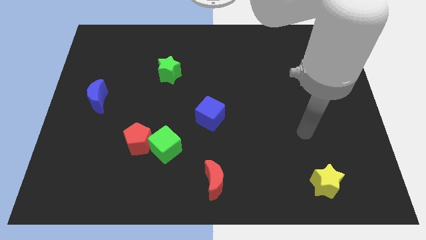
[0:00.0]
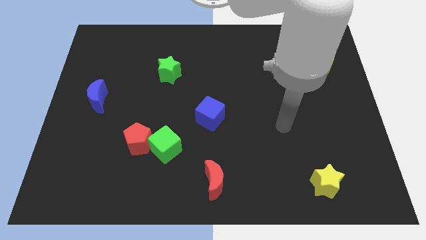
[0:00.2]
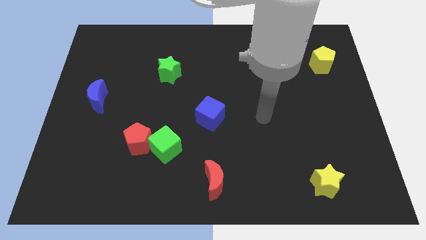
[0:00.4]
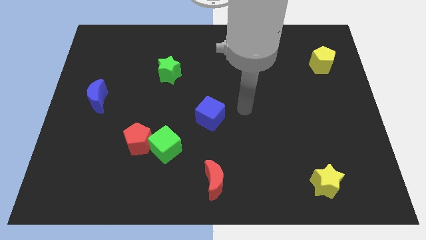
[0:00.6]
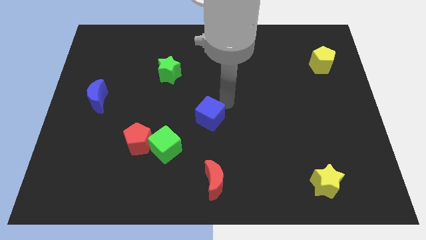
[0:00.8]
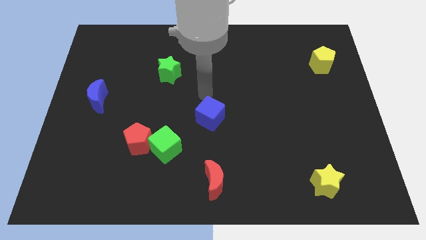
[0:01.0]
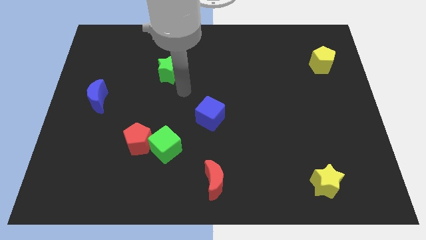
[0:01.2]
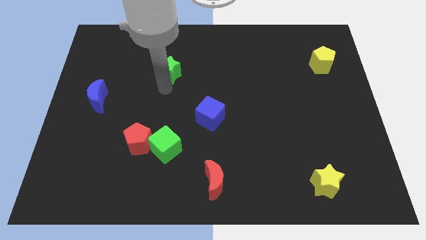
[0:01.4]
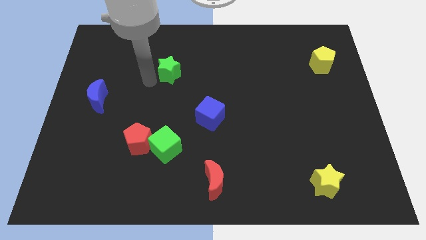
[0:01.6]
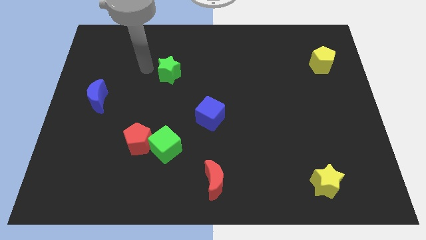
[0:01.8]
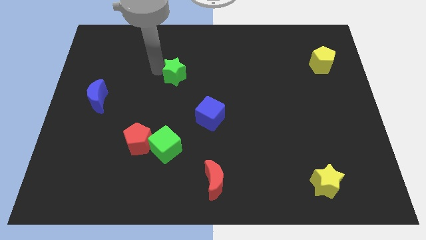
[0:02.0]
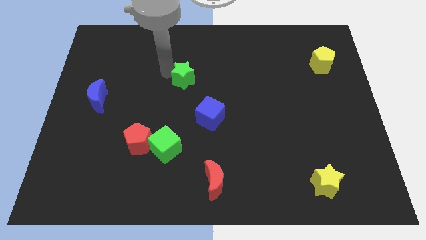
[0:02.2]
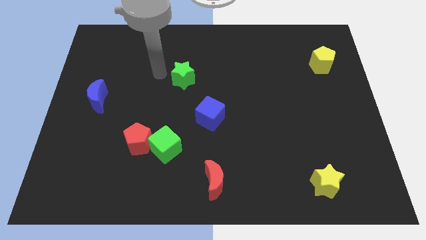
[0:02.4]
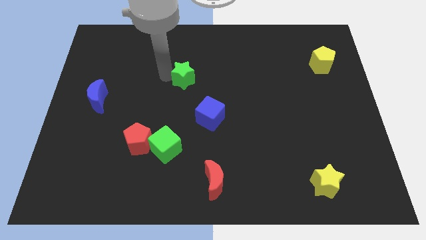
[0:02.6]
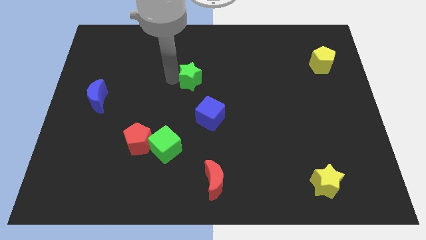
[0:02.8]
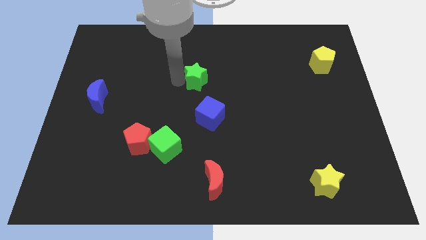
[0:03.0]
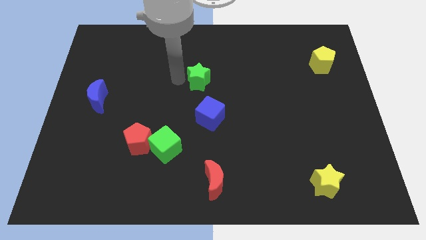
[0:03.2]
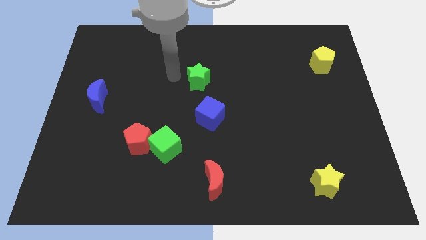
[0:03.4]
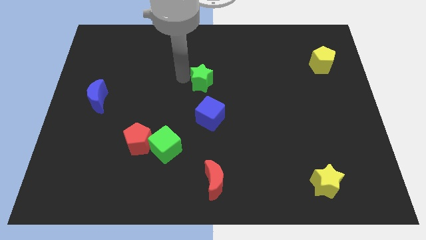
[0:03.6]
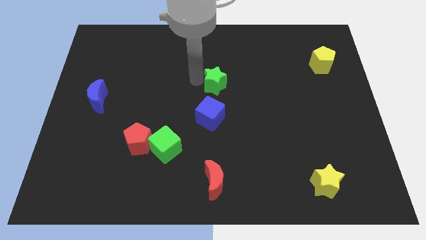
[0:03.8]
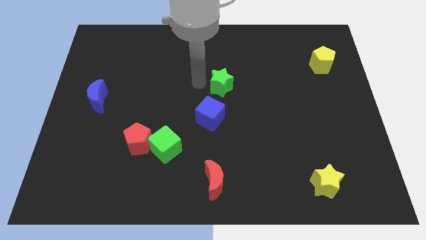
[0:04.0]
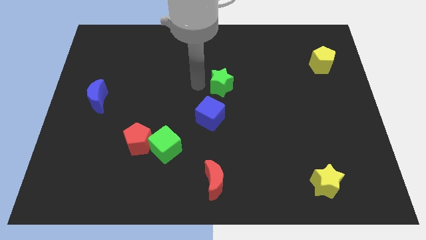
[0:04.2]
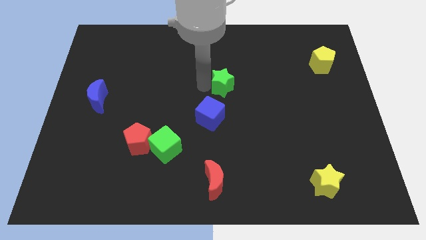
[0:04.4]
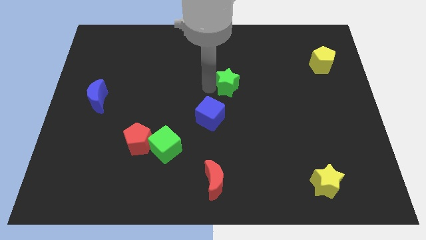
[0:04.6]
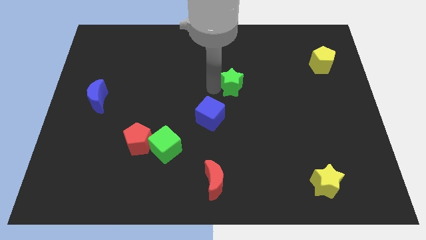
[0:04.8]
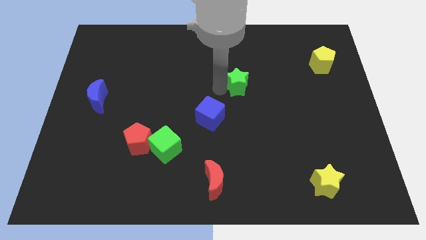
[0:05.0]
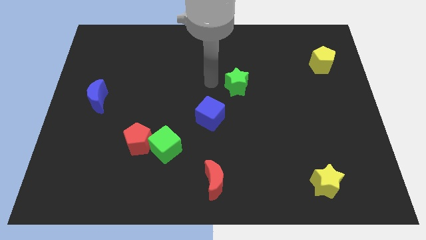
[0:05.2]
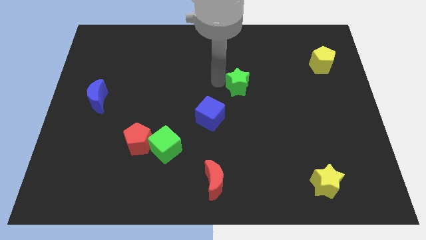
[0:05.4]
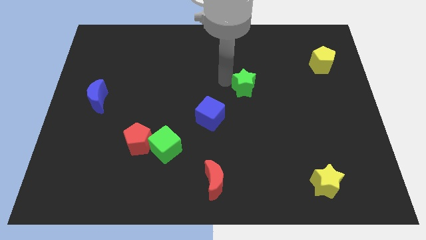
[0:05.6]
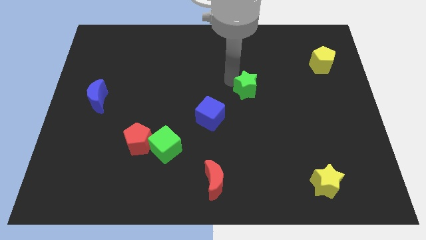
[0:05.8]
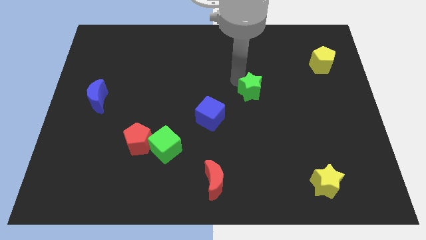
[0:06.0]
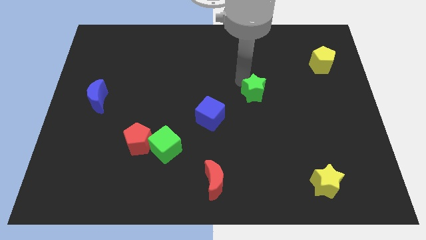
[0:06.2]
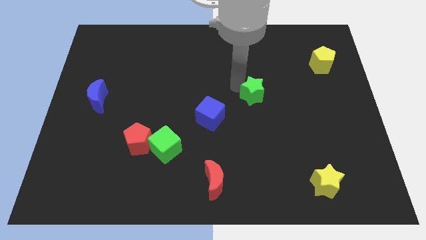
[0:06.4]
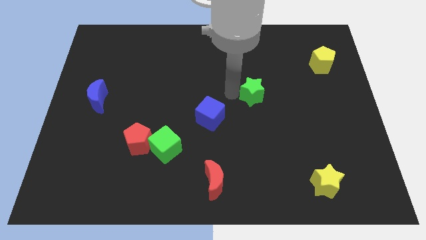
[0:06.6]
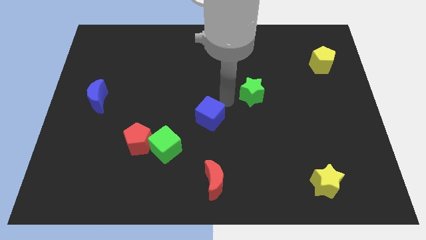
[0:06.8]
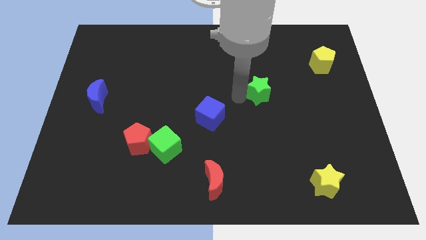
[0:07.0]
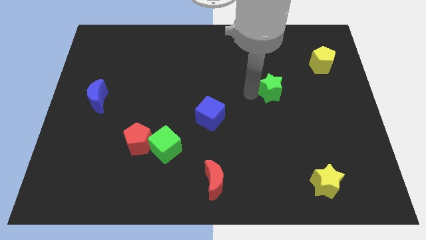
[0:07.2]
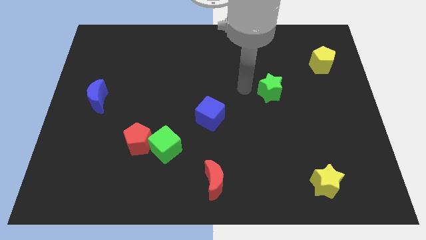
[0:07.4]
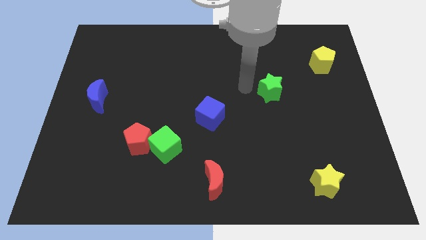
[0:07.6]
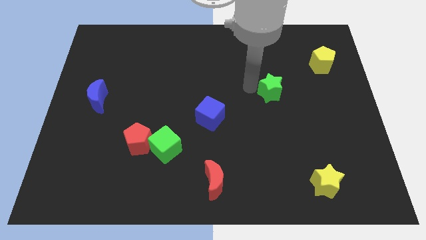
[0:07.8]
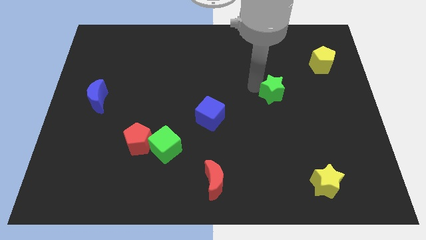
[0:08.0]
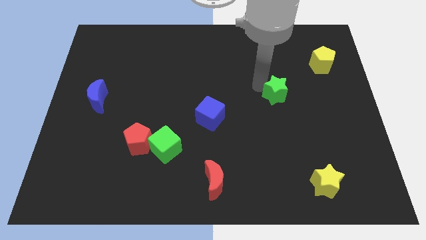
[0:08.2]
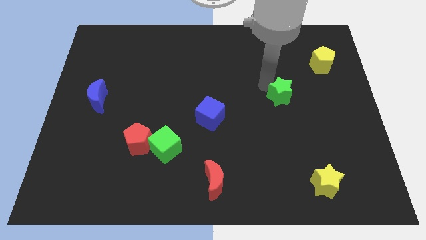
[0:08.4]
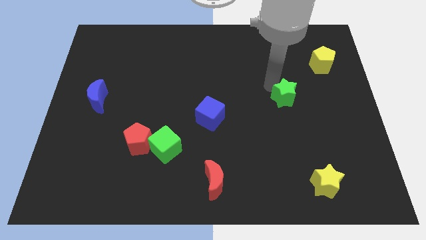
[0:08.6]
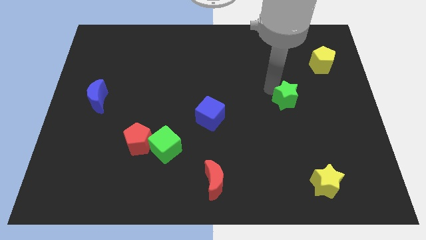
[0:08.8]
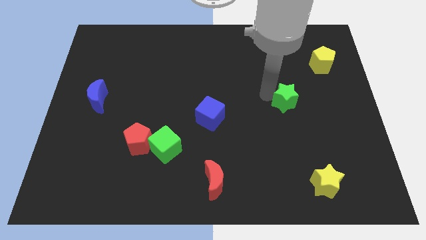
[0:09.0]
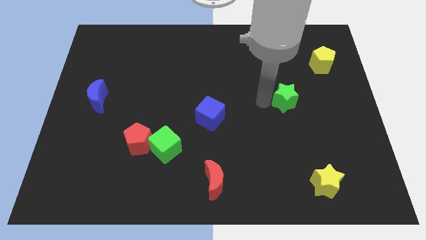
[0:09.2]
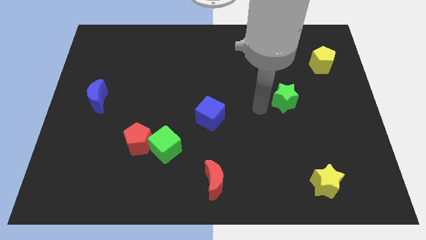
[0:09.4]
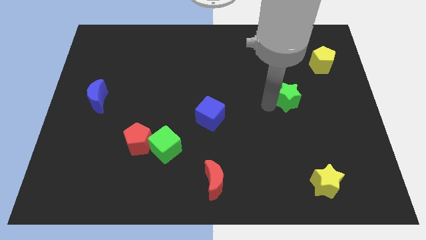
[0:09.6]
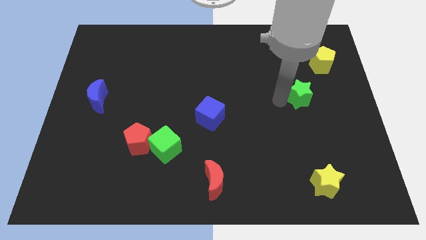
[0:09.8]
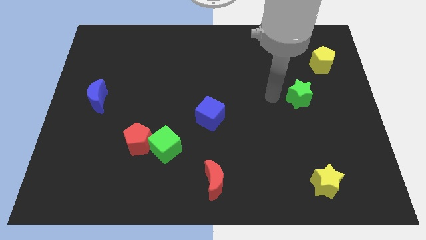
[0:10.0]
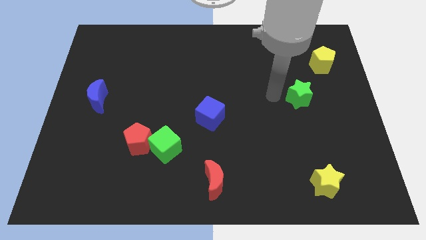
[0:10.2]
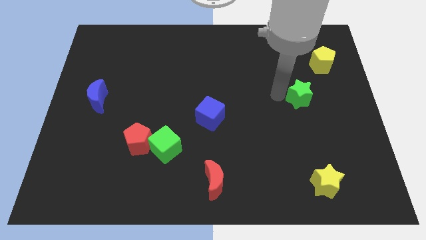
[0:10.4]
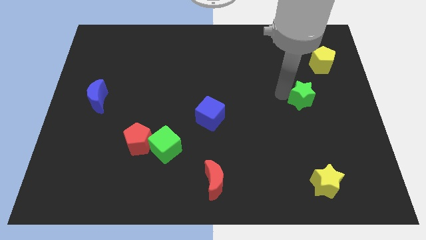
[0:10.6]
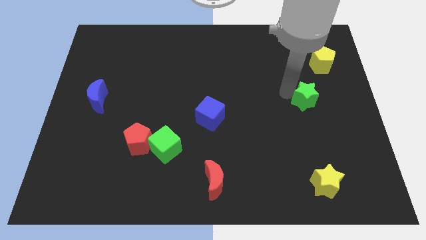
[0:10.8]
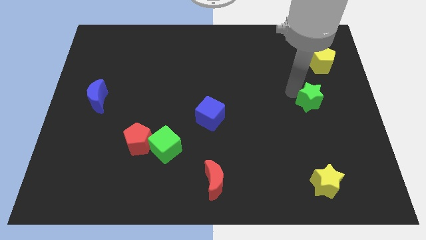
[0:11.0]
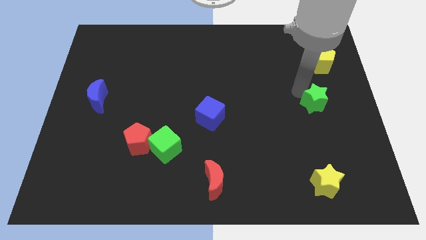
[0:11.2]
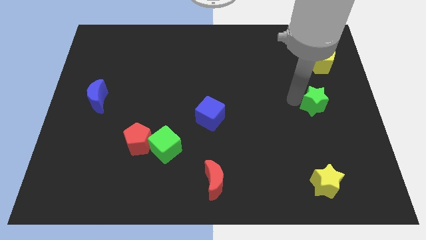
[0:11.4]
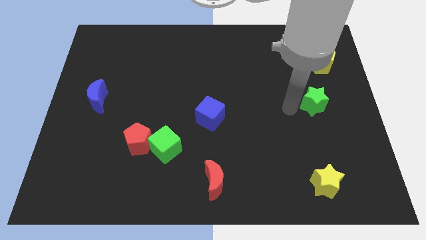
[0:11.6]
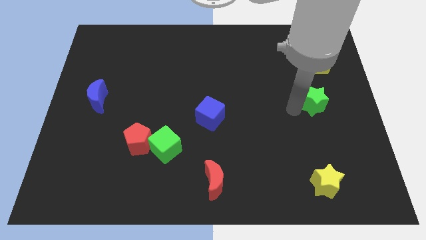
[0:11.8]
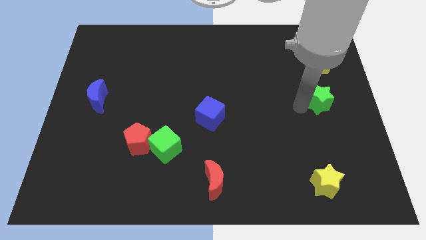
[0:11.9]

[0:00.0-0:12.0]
move the green star to the center right

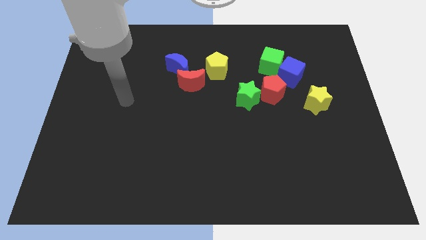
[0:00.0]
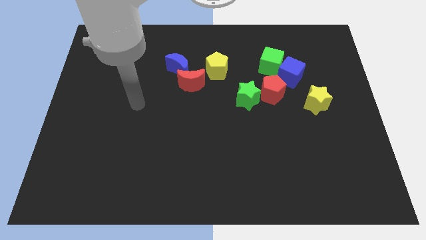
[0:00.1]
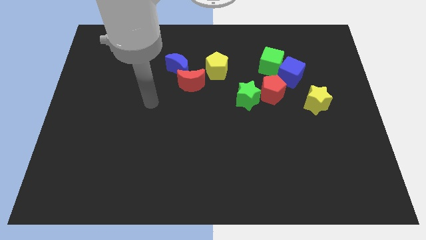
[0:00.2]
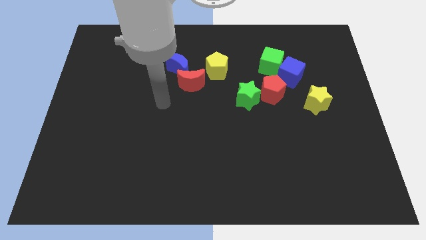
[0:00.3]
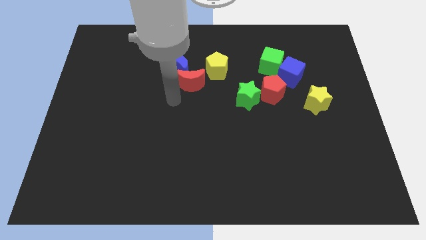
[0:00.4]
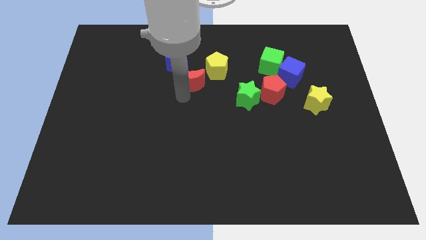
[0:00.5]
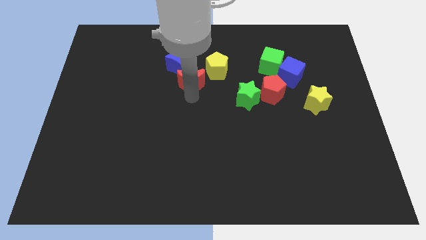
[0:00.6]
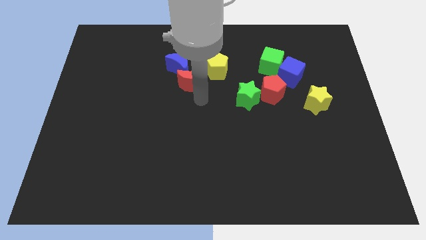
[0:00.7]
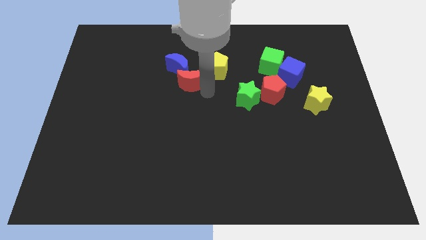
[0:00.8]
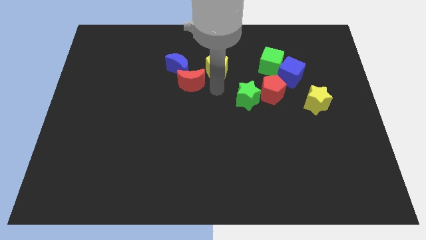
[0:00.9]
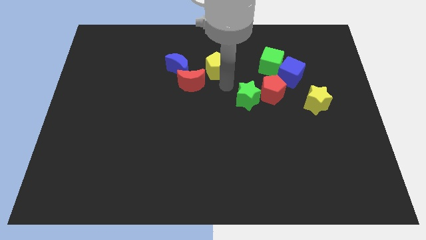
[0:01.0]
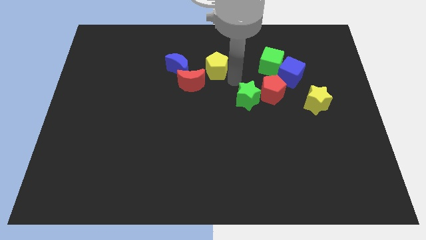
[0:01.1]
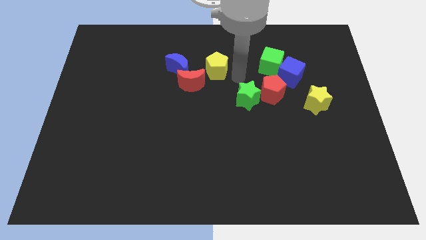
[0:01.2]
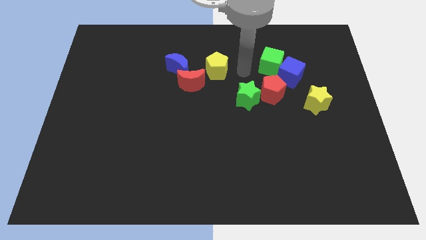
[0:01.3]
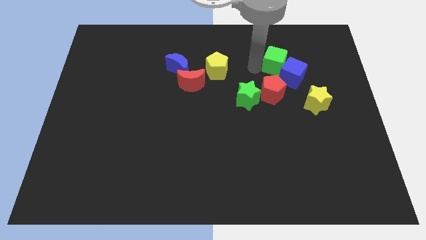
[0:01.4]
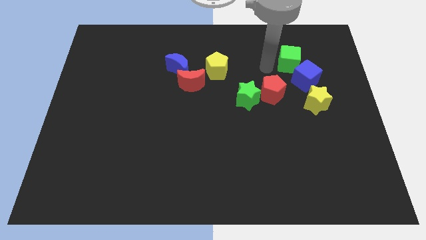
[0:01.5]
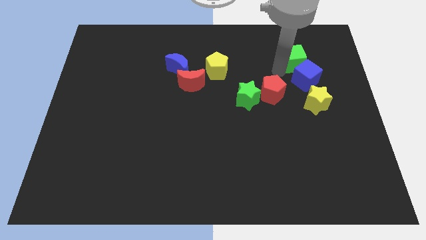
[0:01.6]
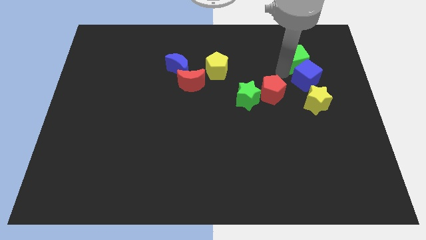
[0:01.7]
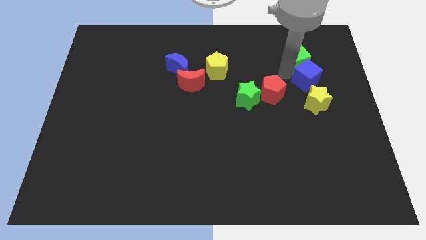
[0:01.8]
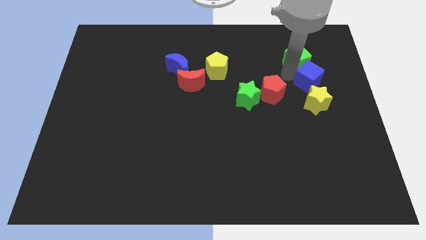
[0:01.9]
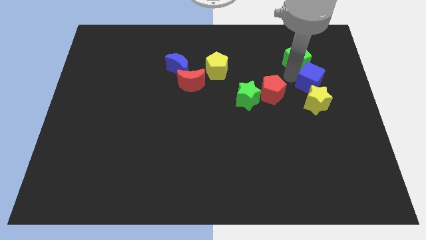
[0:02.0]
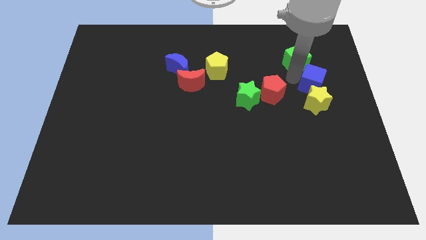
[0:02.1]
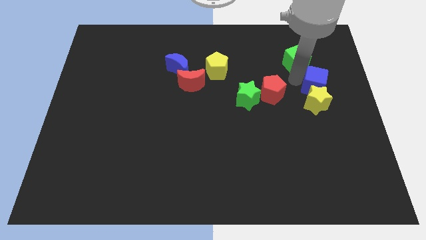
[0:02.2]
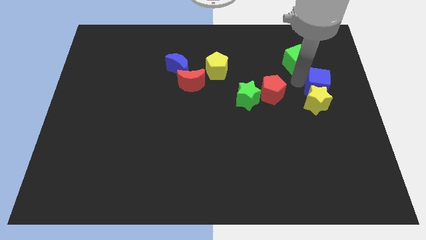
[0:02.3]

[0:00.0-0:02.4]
slide the blue cube to the center right
